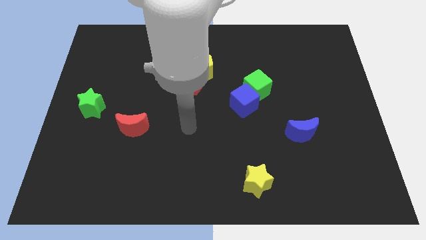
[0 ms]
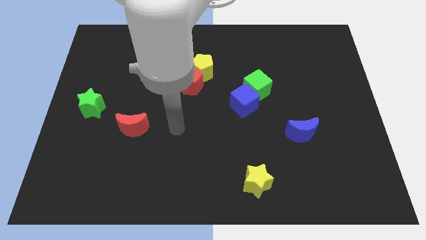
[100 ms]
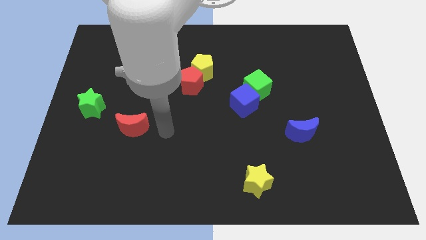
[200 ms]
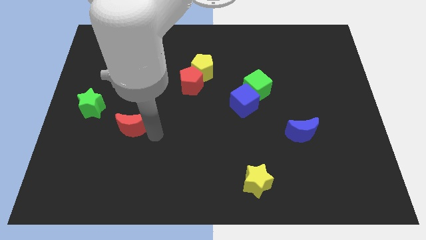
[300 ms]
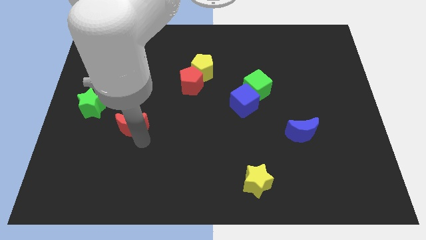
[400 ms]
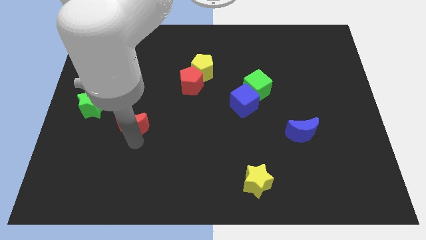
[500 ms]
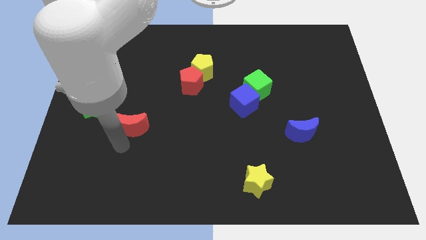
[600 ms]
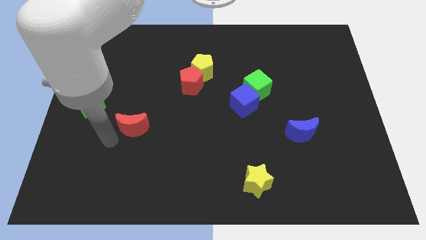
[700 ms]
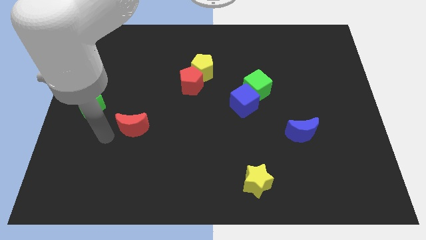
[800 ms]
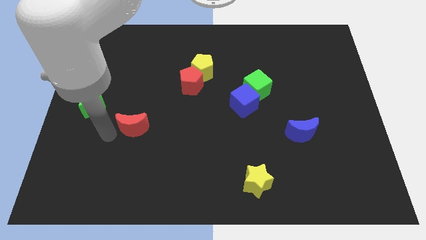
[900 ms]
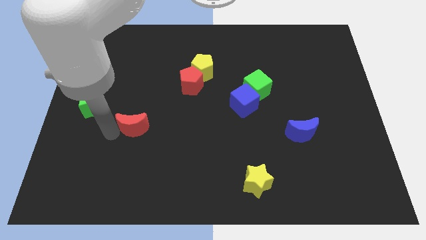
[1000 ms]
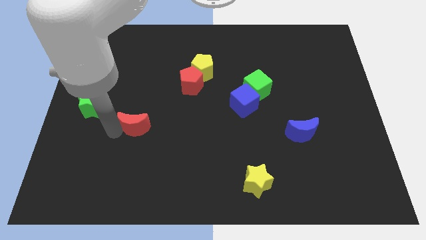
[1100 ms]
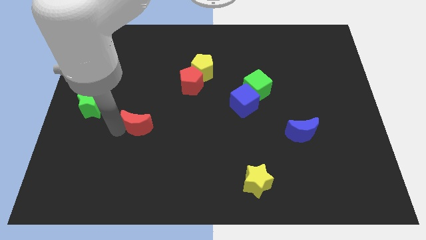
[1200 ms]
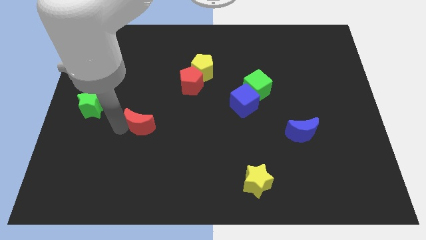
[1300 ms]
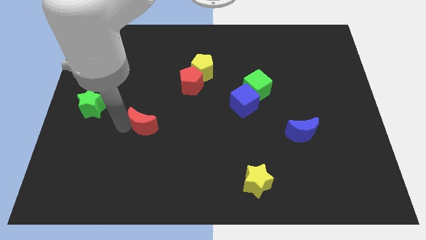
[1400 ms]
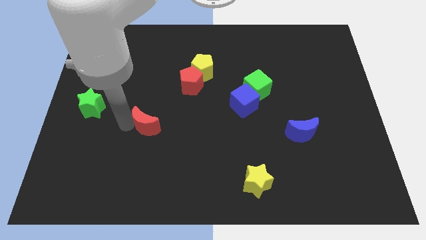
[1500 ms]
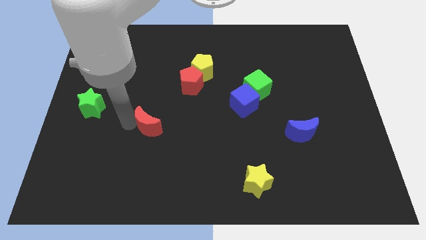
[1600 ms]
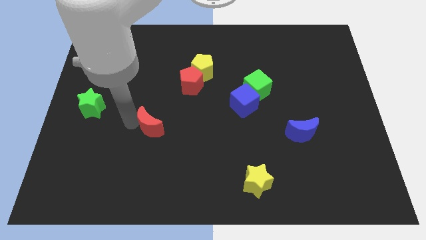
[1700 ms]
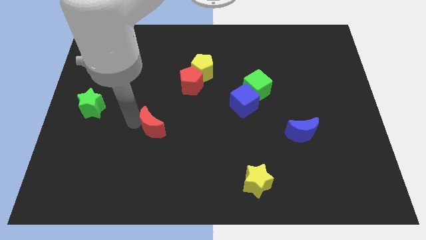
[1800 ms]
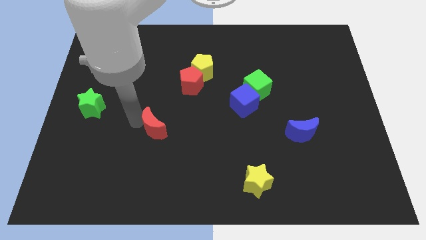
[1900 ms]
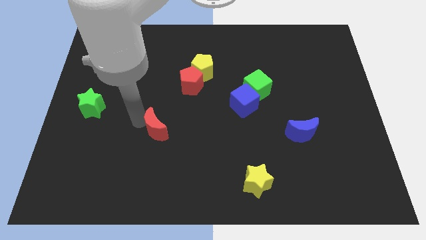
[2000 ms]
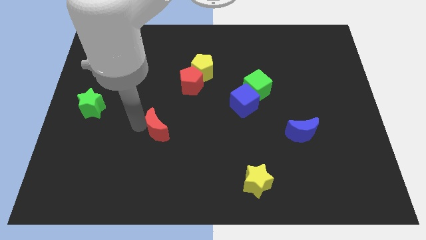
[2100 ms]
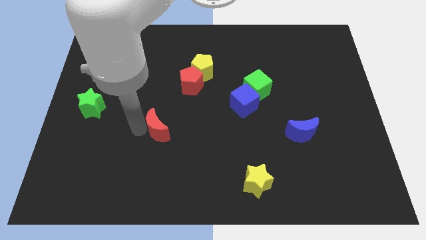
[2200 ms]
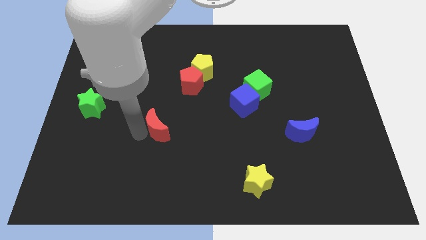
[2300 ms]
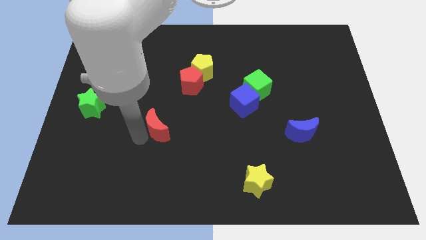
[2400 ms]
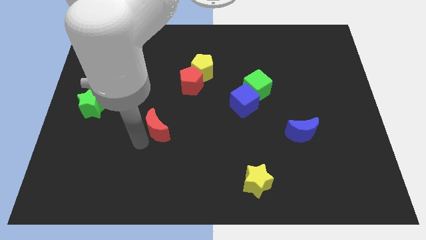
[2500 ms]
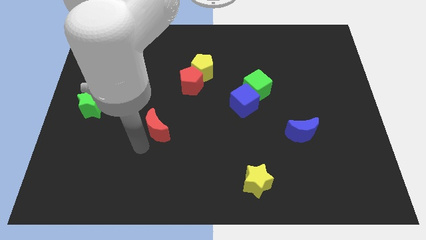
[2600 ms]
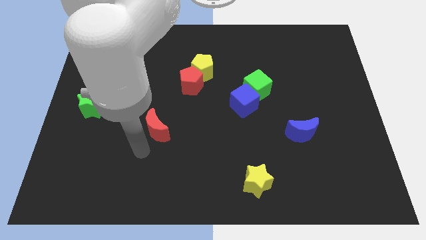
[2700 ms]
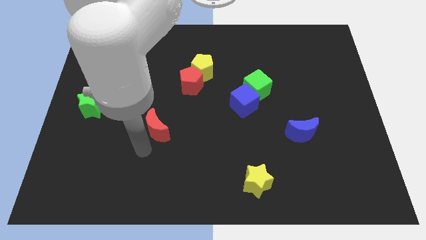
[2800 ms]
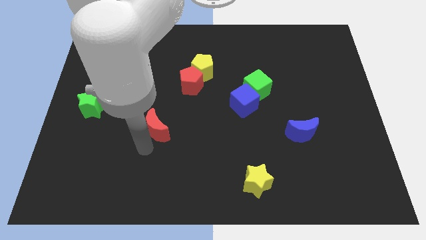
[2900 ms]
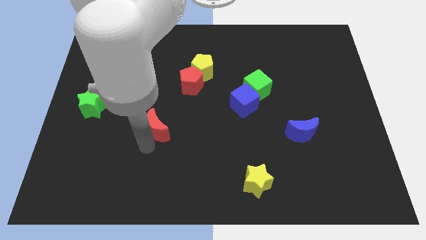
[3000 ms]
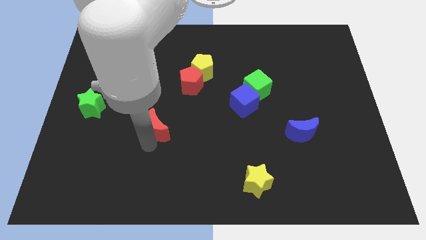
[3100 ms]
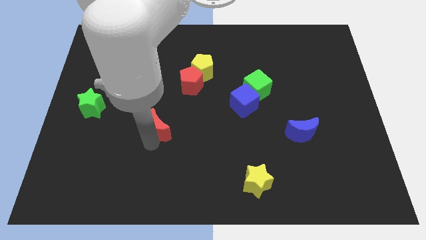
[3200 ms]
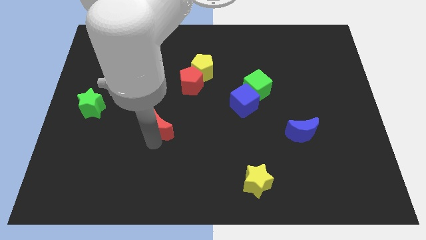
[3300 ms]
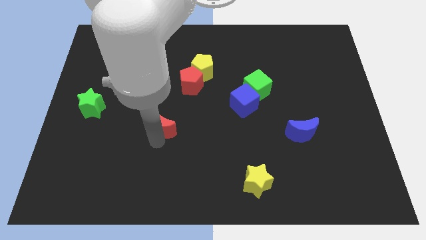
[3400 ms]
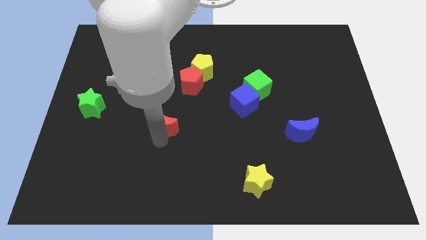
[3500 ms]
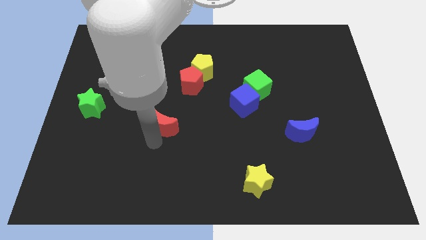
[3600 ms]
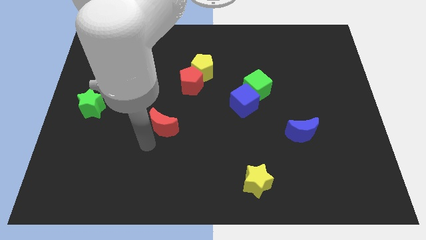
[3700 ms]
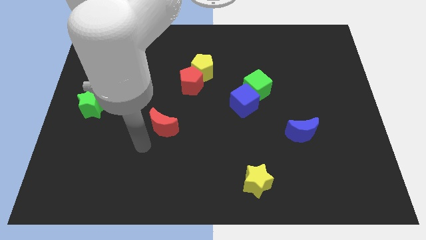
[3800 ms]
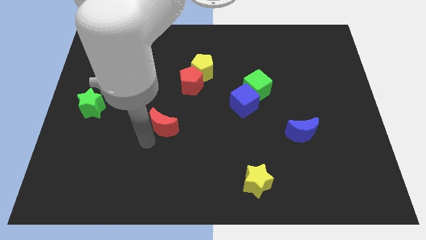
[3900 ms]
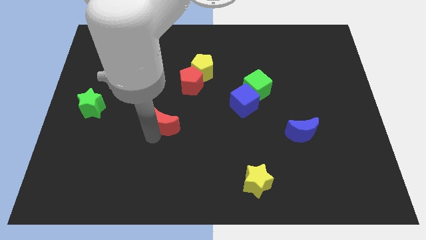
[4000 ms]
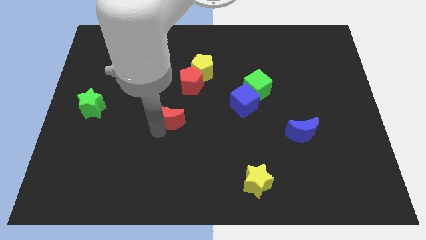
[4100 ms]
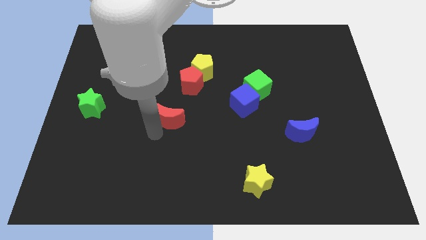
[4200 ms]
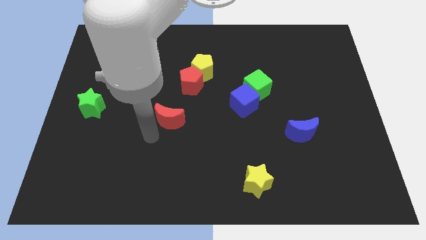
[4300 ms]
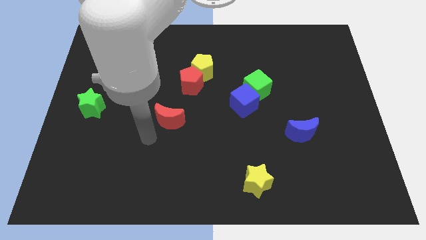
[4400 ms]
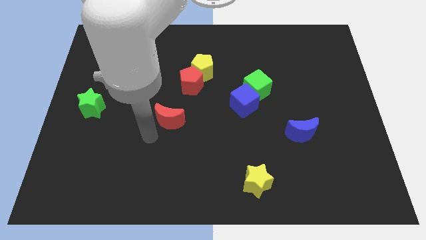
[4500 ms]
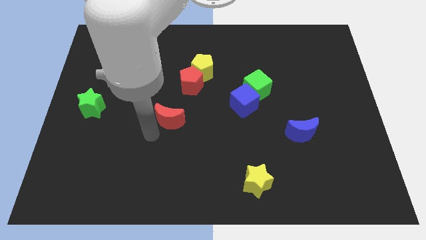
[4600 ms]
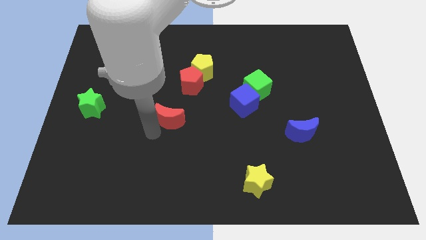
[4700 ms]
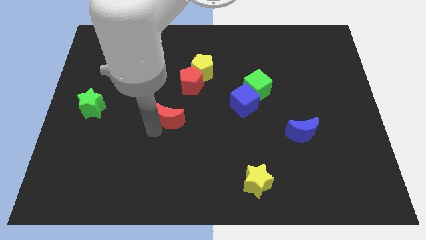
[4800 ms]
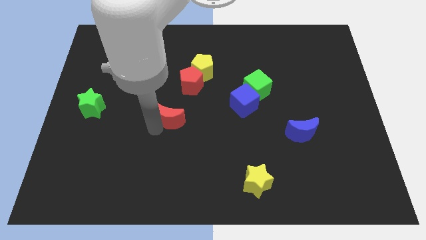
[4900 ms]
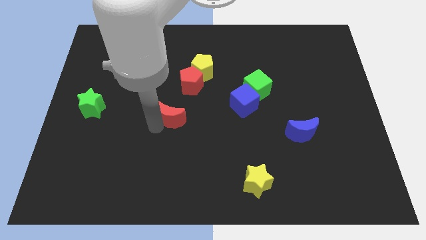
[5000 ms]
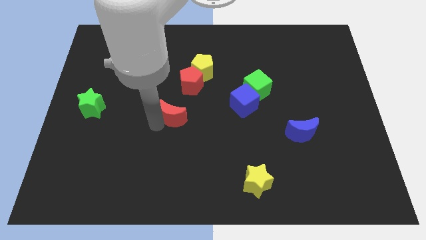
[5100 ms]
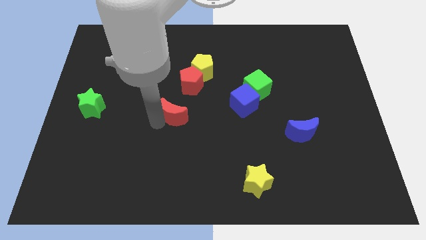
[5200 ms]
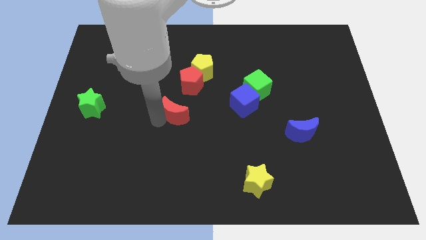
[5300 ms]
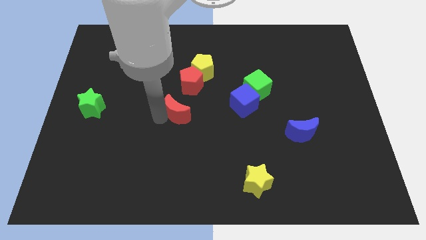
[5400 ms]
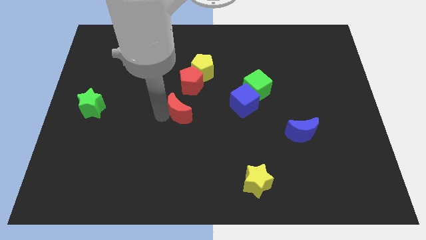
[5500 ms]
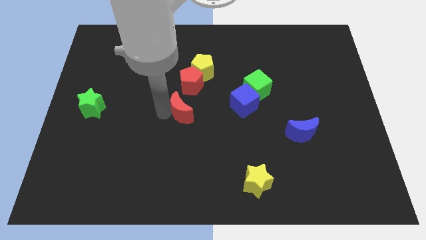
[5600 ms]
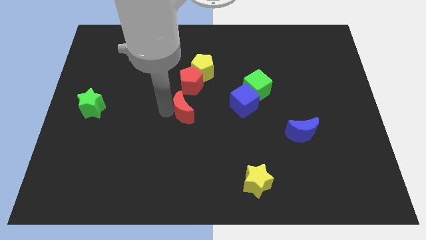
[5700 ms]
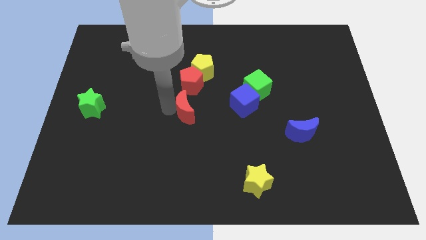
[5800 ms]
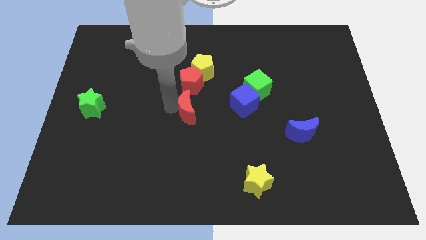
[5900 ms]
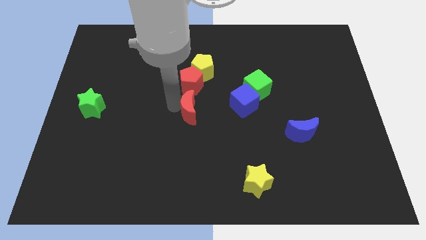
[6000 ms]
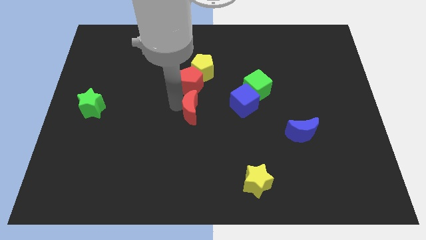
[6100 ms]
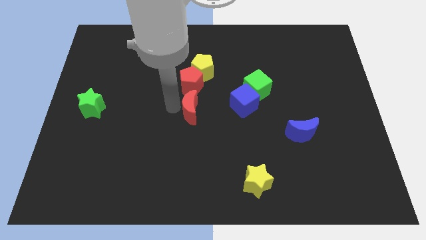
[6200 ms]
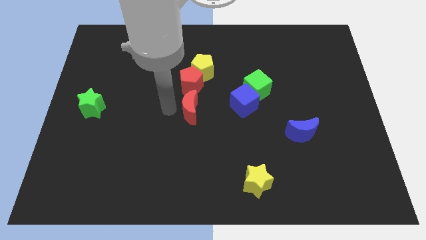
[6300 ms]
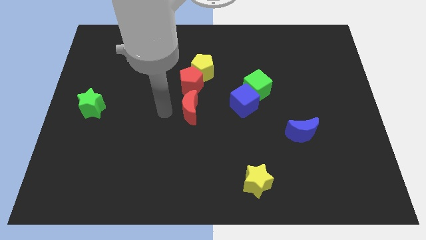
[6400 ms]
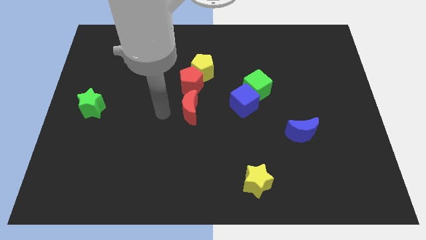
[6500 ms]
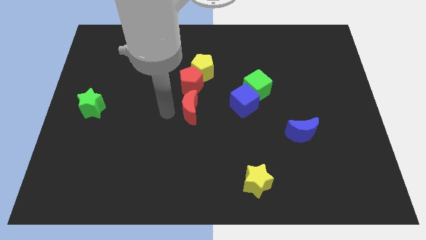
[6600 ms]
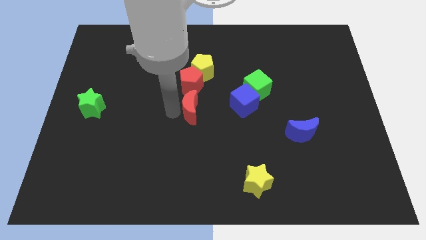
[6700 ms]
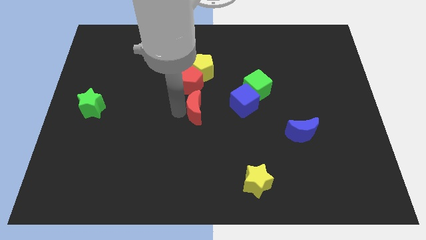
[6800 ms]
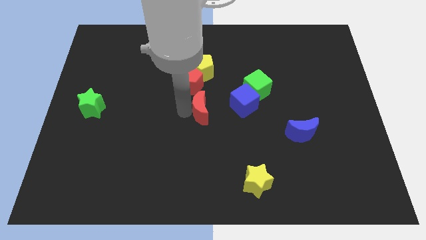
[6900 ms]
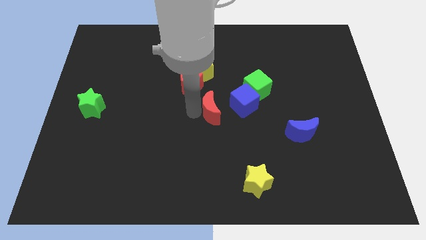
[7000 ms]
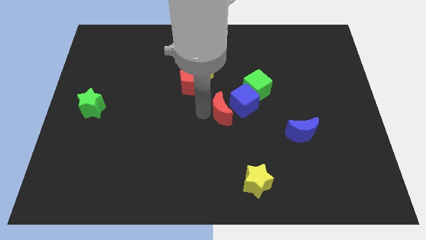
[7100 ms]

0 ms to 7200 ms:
move the red moon towards the blue cube

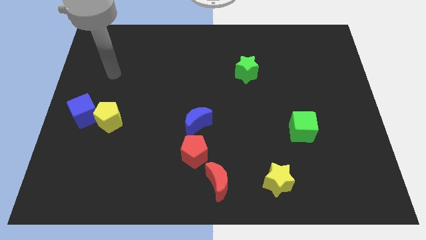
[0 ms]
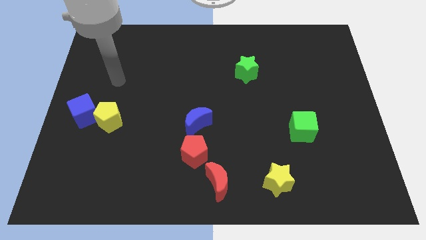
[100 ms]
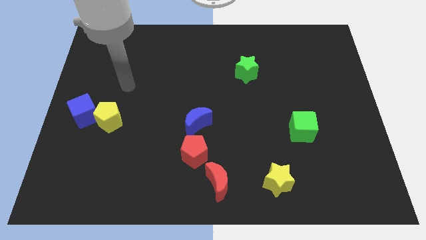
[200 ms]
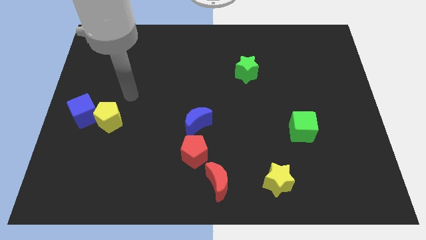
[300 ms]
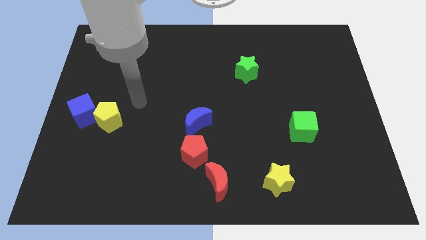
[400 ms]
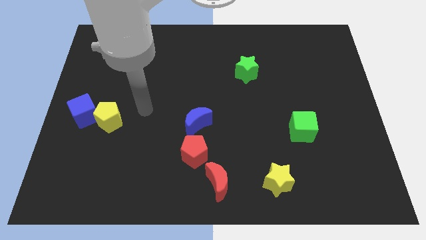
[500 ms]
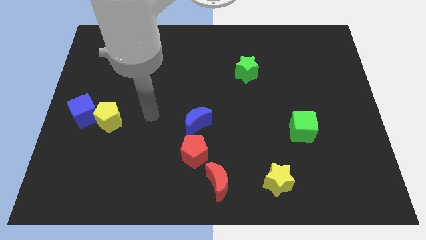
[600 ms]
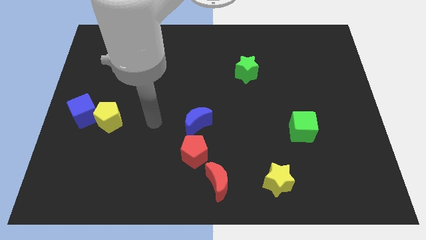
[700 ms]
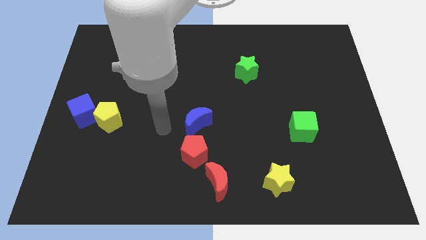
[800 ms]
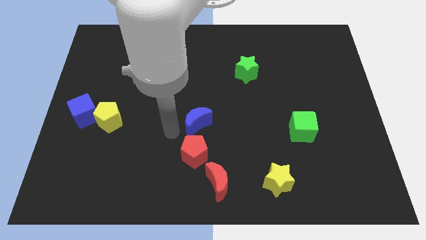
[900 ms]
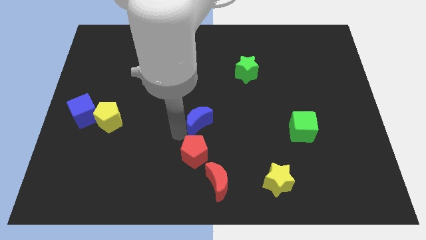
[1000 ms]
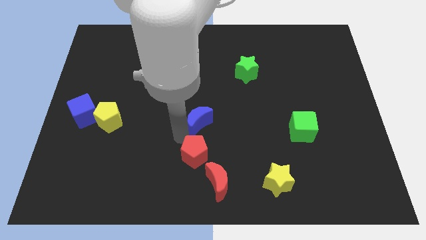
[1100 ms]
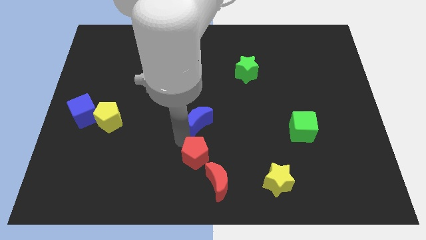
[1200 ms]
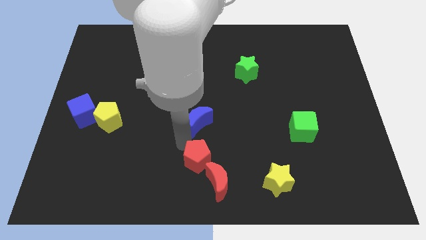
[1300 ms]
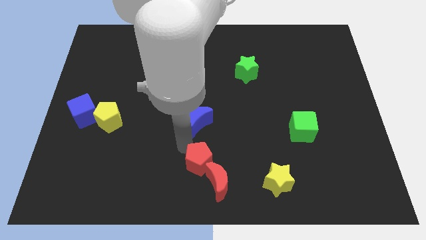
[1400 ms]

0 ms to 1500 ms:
push the red pentagon next to the red moon
